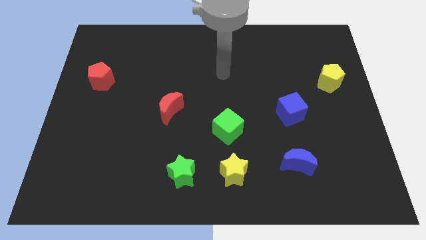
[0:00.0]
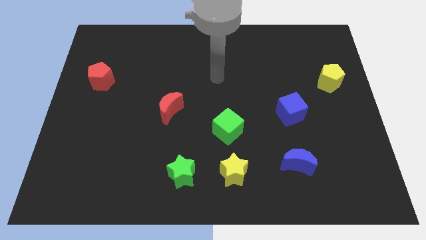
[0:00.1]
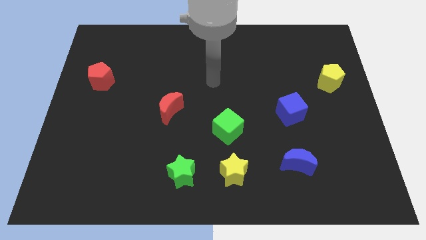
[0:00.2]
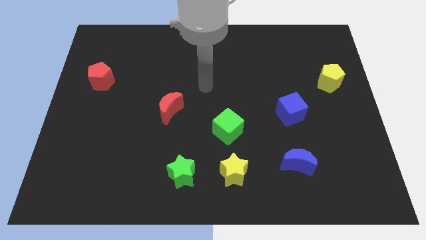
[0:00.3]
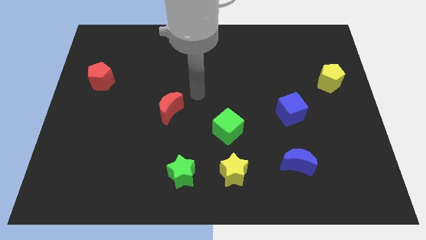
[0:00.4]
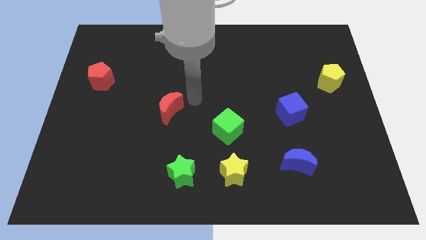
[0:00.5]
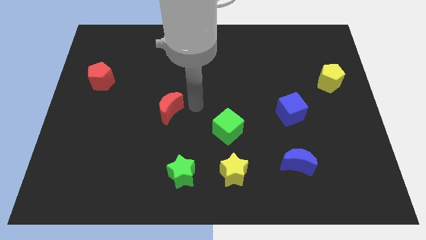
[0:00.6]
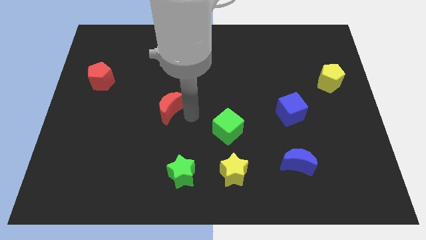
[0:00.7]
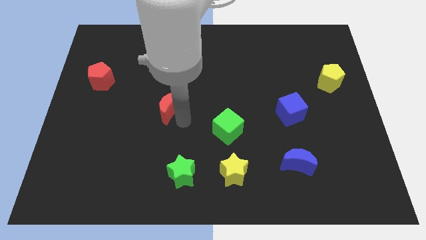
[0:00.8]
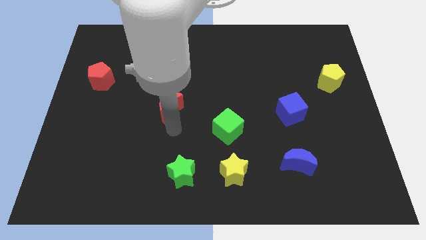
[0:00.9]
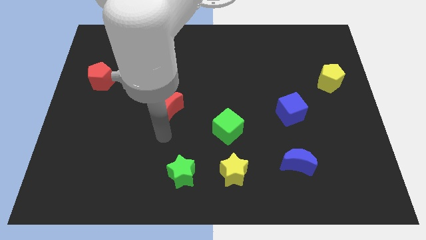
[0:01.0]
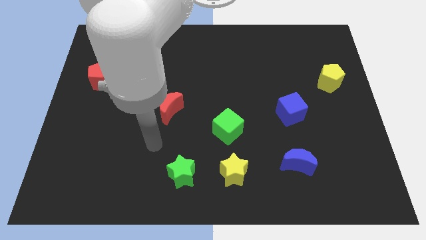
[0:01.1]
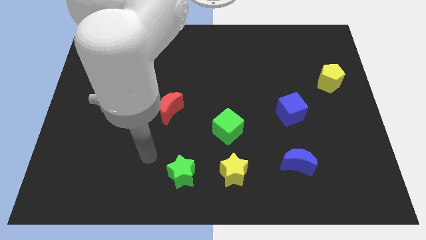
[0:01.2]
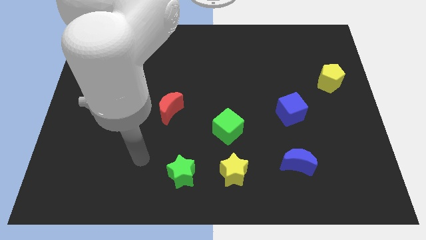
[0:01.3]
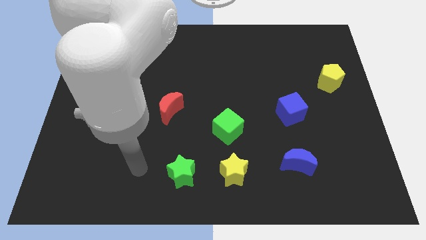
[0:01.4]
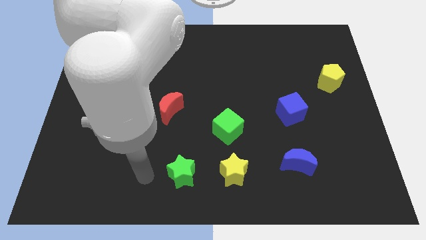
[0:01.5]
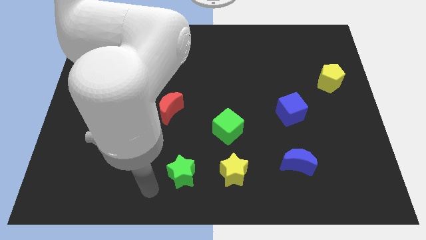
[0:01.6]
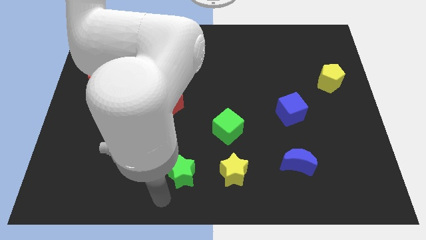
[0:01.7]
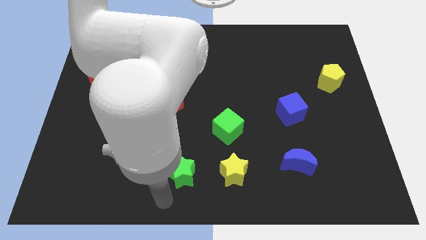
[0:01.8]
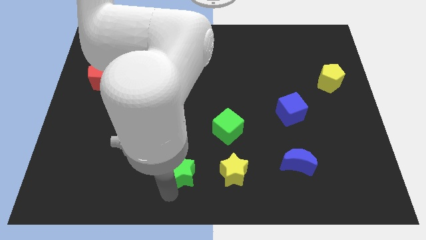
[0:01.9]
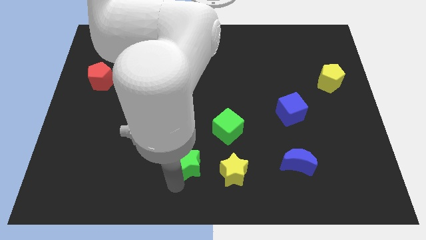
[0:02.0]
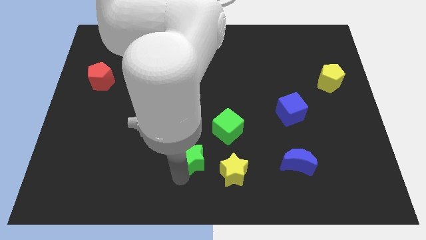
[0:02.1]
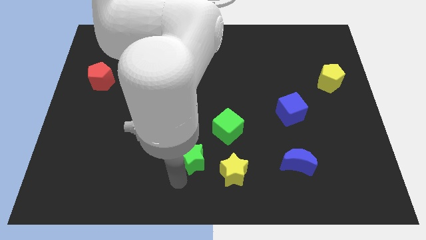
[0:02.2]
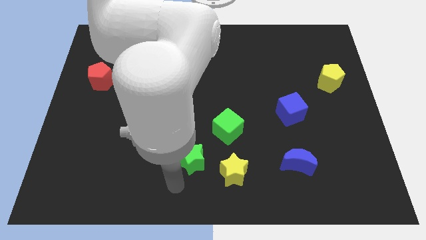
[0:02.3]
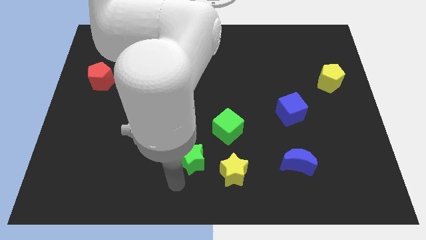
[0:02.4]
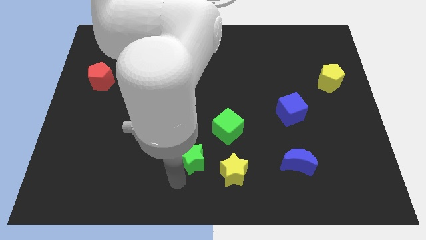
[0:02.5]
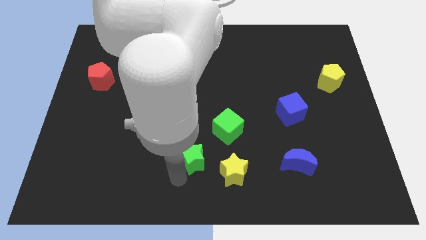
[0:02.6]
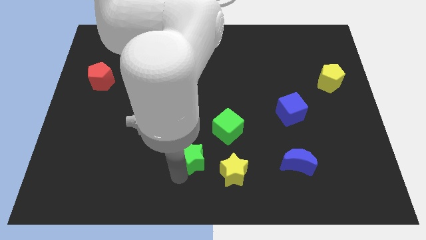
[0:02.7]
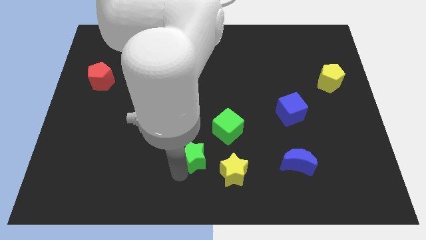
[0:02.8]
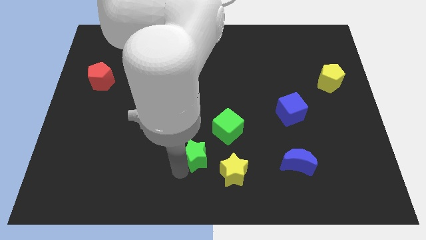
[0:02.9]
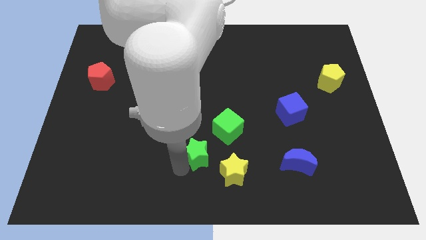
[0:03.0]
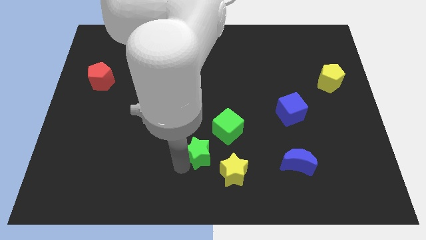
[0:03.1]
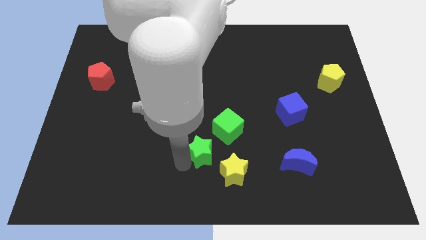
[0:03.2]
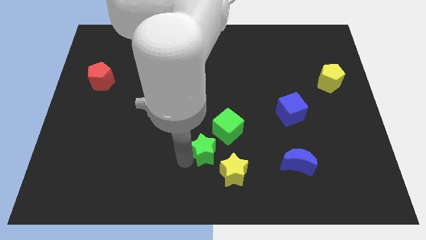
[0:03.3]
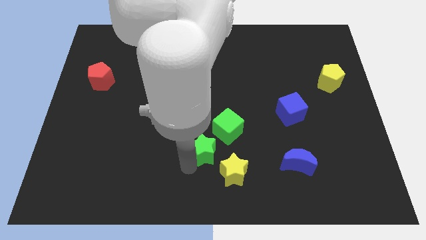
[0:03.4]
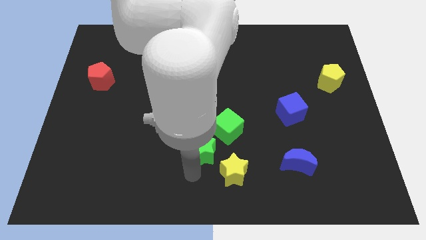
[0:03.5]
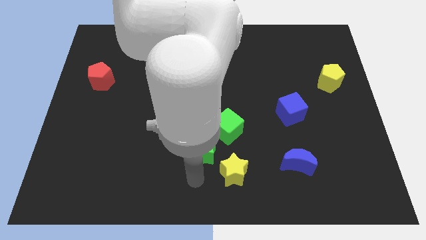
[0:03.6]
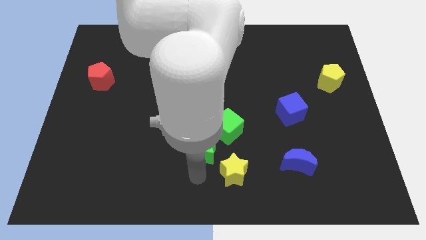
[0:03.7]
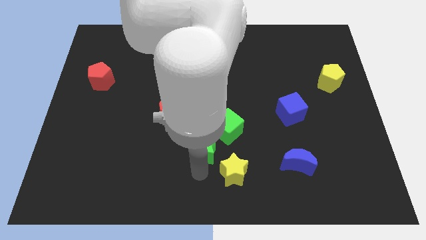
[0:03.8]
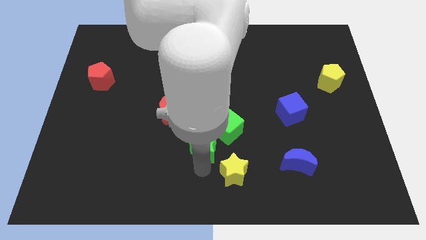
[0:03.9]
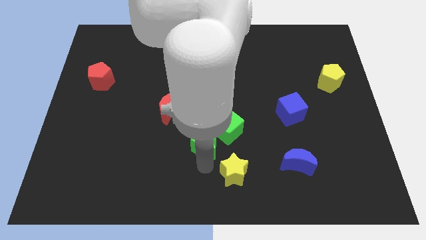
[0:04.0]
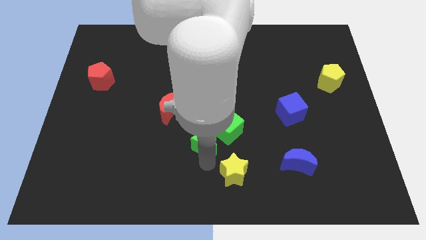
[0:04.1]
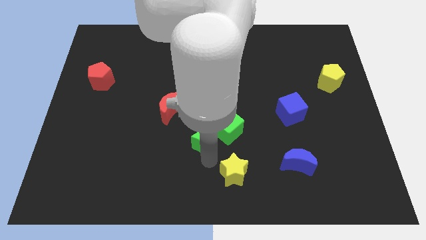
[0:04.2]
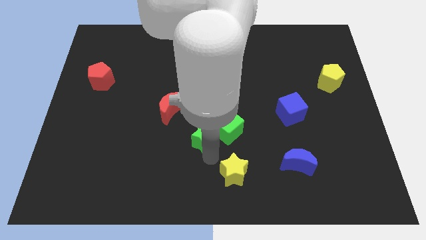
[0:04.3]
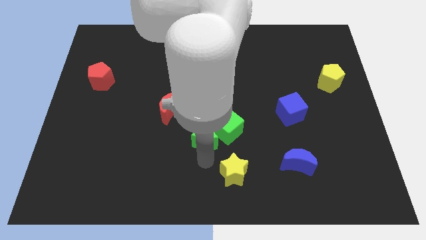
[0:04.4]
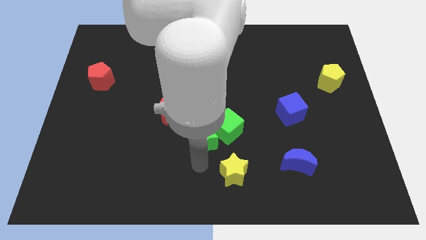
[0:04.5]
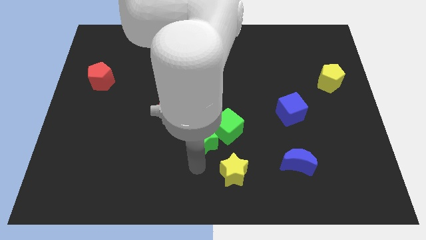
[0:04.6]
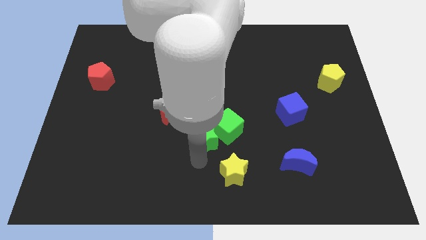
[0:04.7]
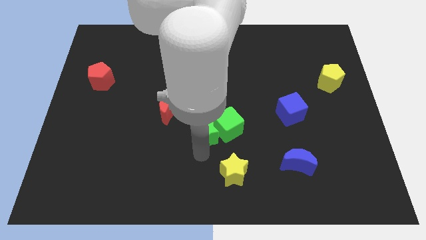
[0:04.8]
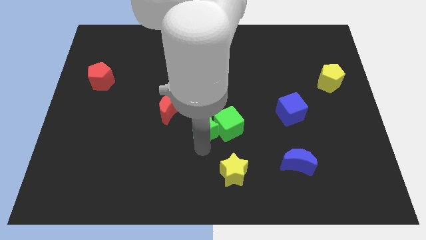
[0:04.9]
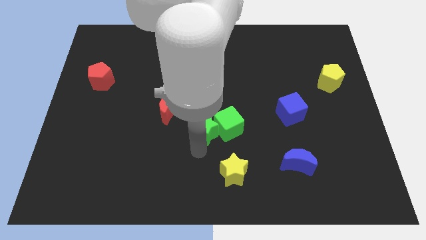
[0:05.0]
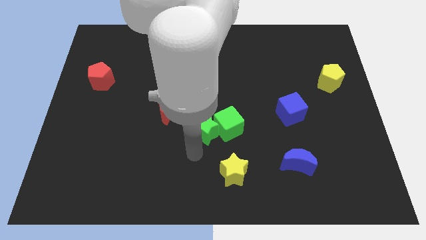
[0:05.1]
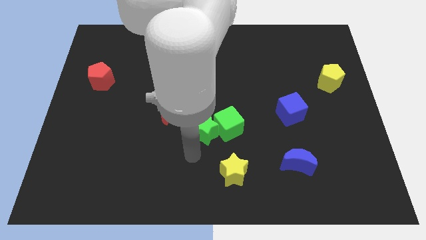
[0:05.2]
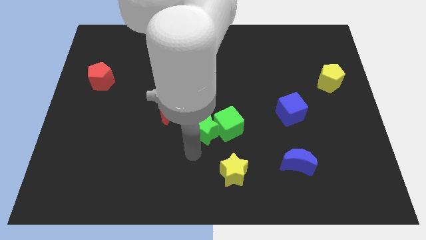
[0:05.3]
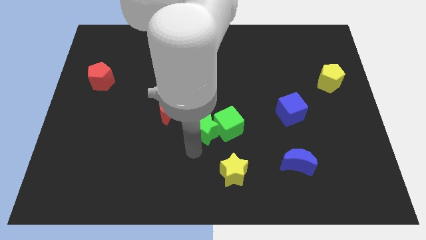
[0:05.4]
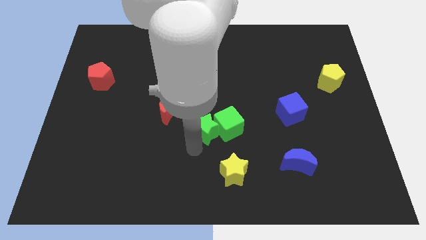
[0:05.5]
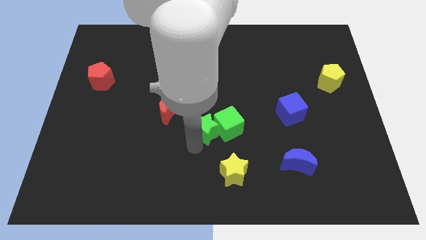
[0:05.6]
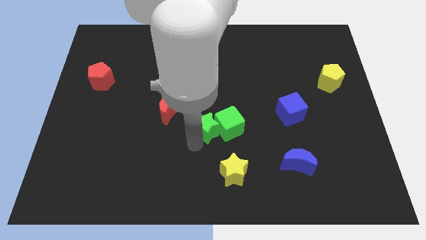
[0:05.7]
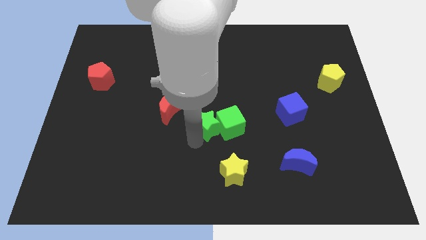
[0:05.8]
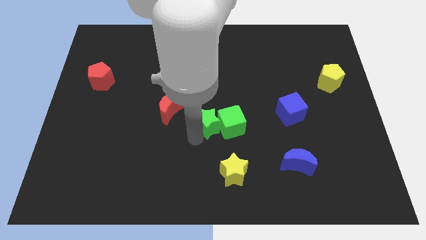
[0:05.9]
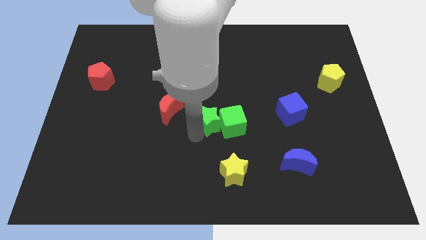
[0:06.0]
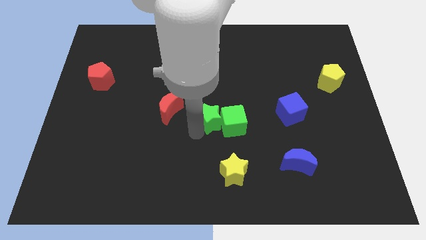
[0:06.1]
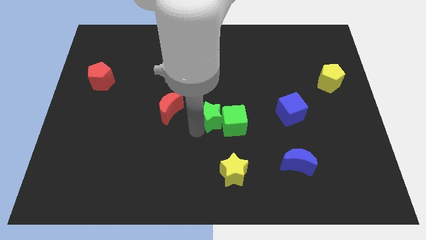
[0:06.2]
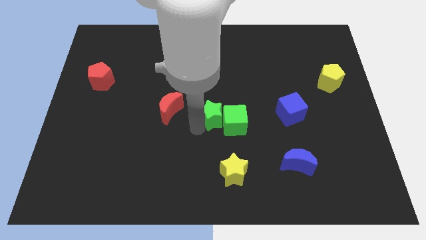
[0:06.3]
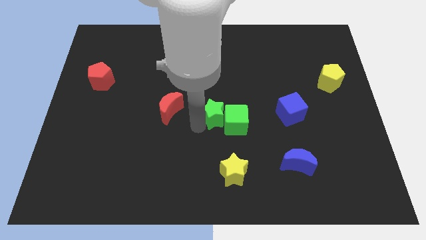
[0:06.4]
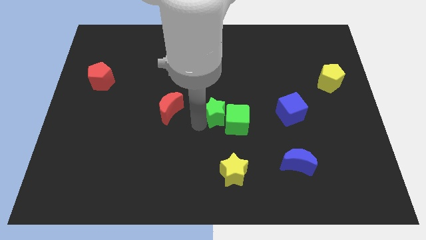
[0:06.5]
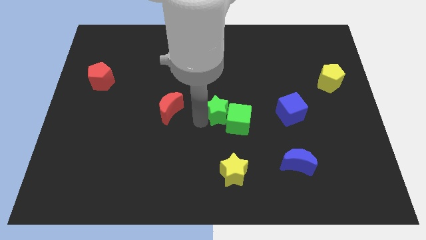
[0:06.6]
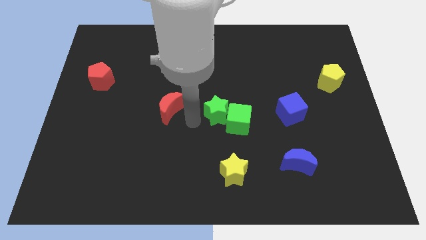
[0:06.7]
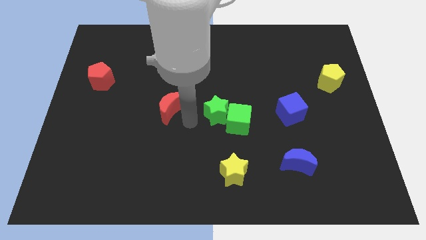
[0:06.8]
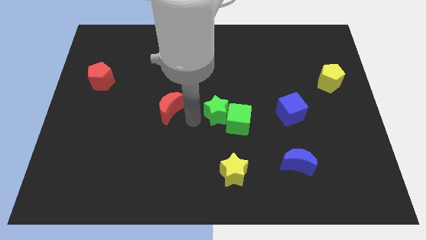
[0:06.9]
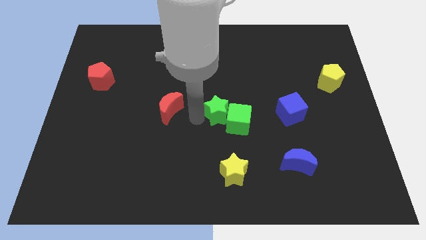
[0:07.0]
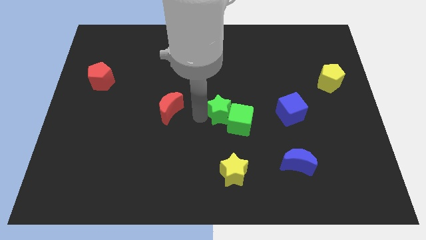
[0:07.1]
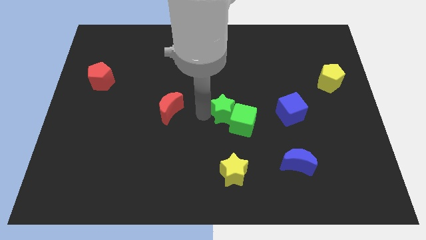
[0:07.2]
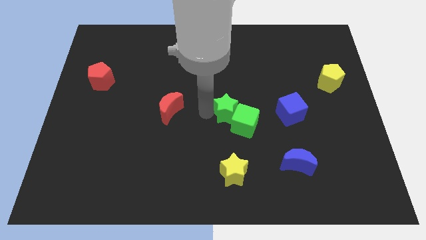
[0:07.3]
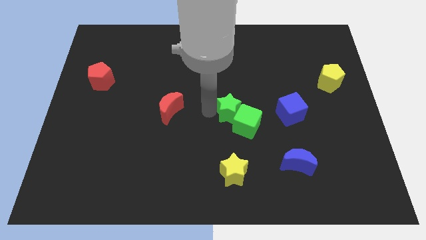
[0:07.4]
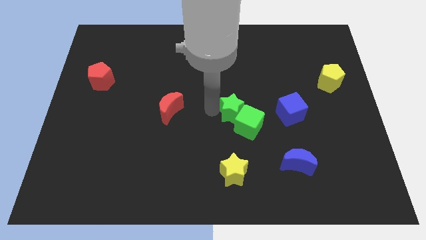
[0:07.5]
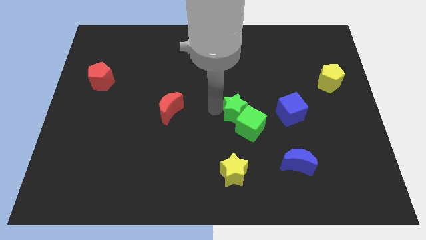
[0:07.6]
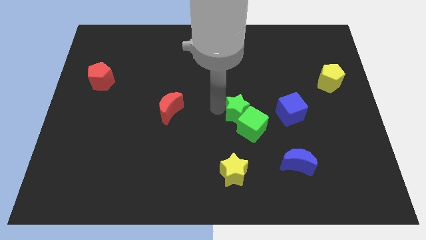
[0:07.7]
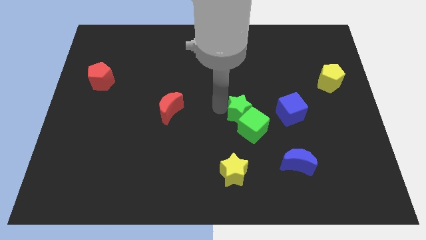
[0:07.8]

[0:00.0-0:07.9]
push the green star up and to the right diagonally

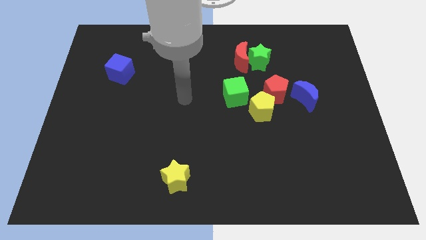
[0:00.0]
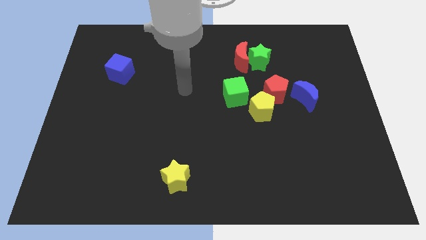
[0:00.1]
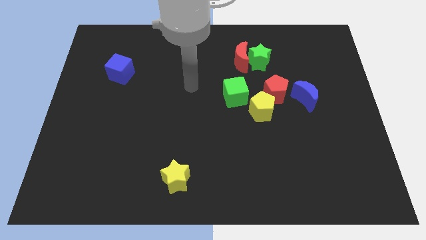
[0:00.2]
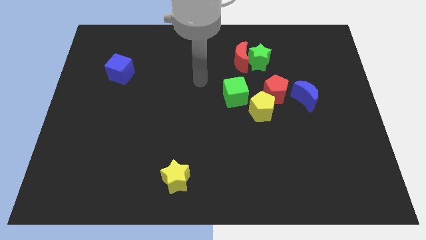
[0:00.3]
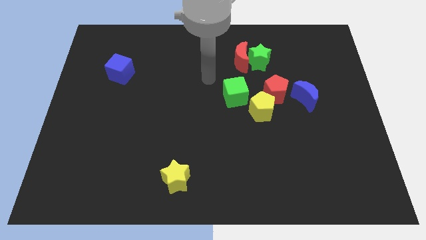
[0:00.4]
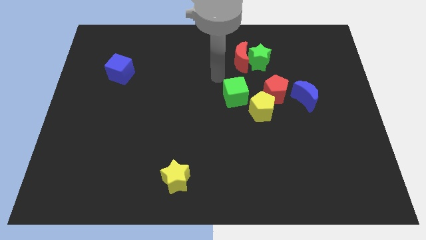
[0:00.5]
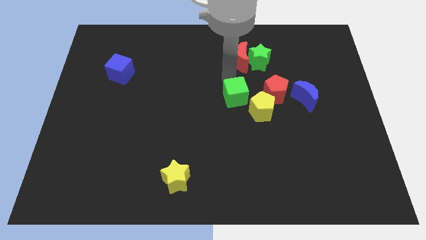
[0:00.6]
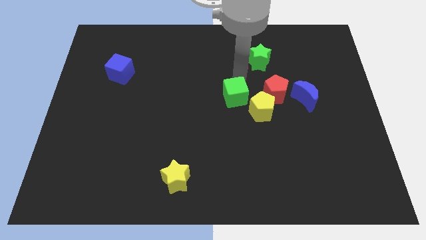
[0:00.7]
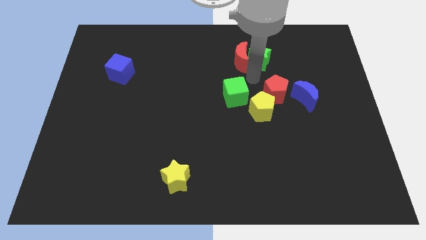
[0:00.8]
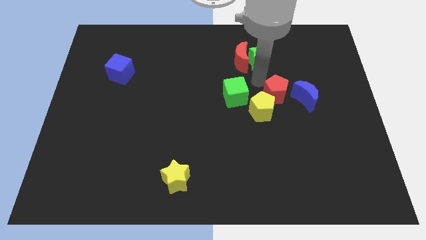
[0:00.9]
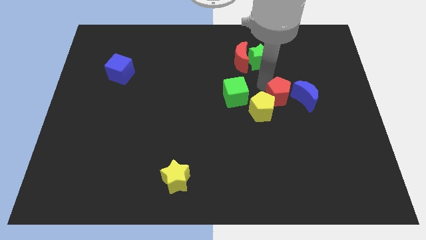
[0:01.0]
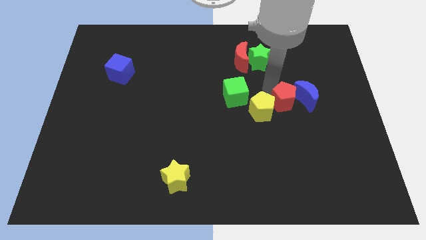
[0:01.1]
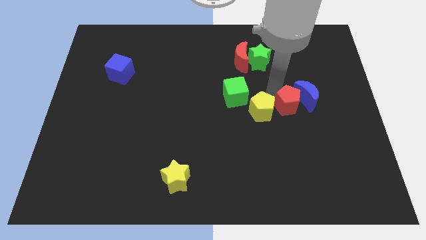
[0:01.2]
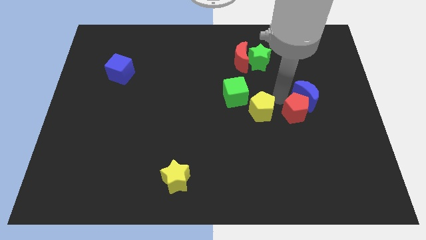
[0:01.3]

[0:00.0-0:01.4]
slightly move the red pentagon downwards and right
